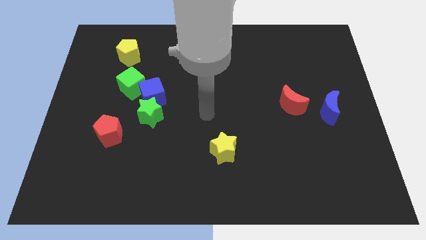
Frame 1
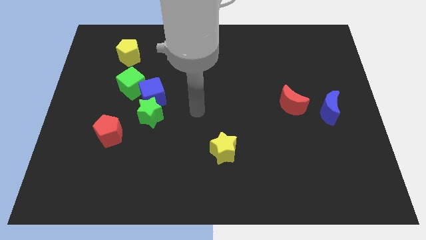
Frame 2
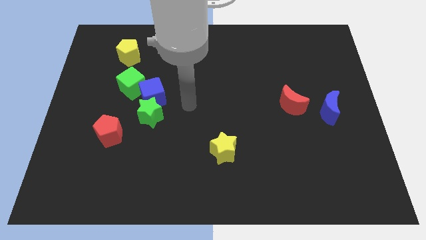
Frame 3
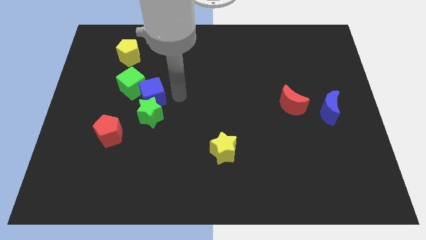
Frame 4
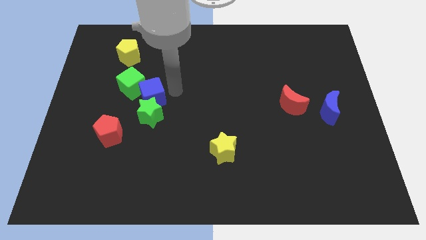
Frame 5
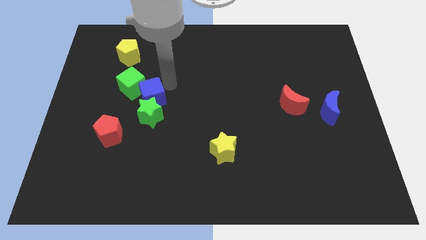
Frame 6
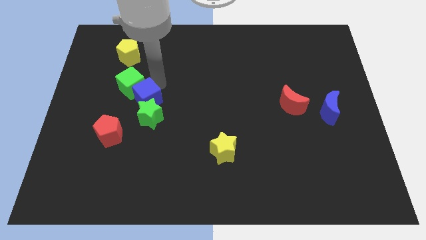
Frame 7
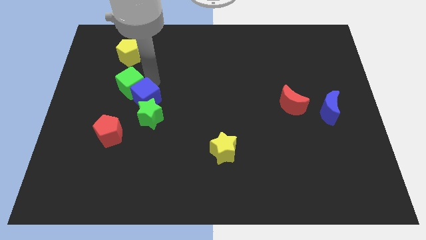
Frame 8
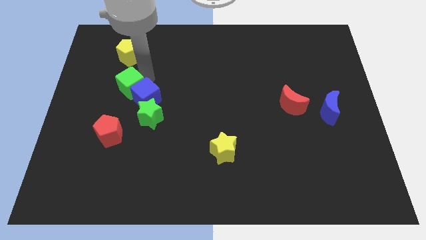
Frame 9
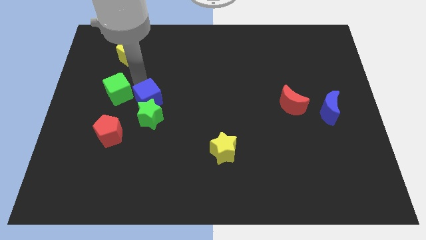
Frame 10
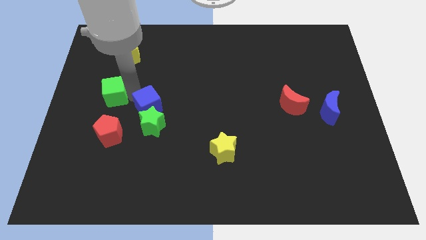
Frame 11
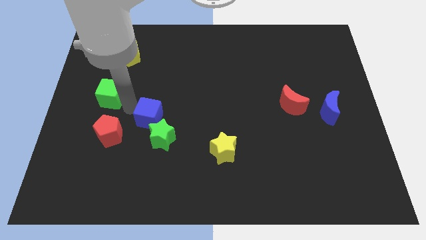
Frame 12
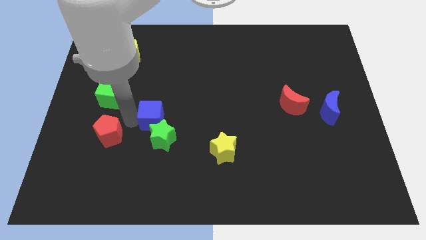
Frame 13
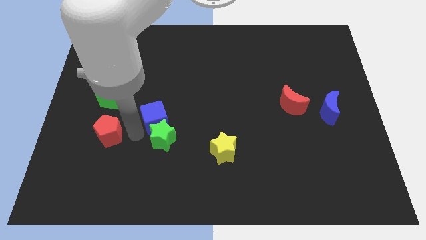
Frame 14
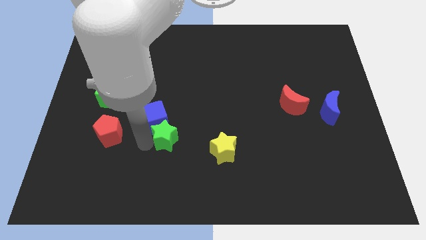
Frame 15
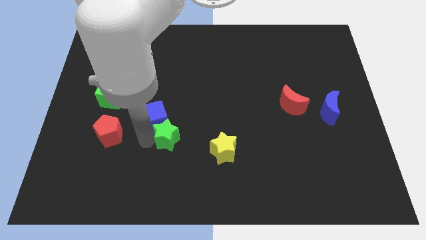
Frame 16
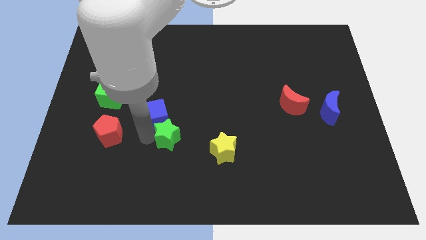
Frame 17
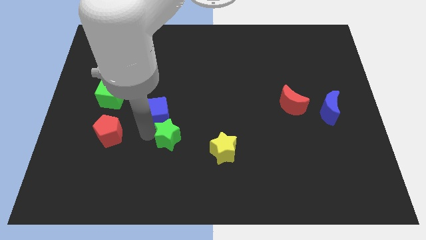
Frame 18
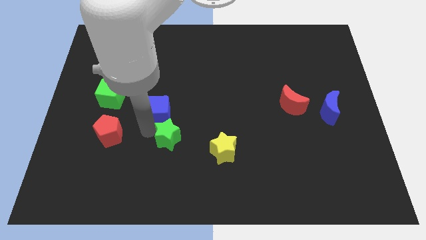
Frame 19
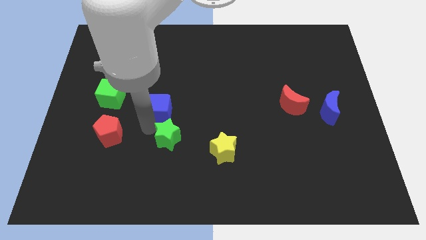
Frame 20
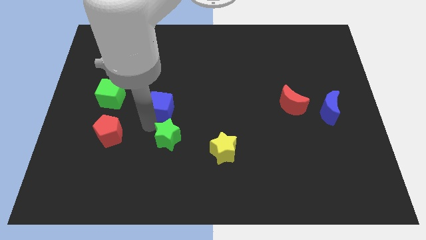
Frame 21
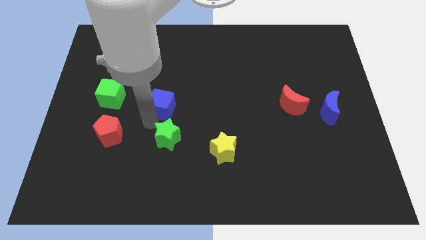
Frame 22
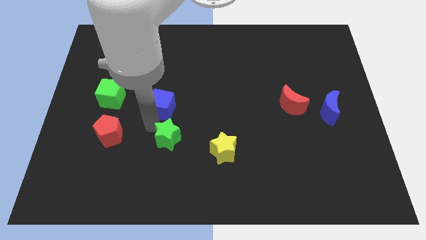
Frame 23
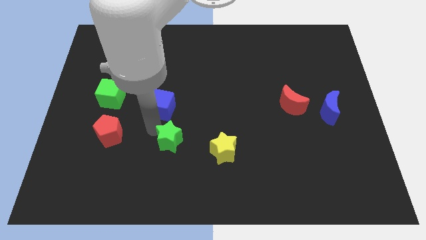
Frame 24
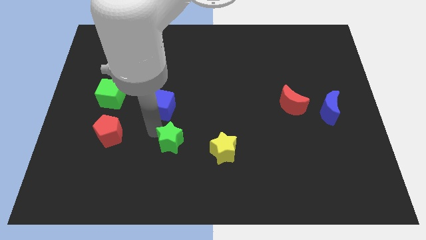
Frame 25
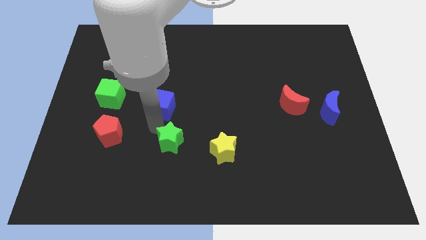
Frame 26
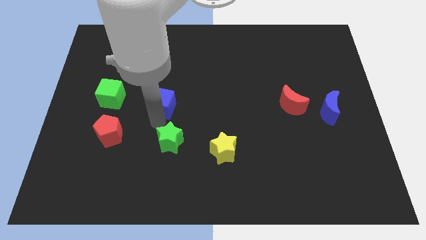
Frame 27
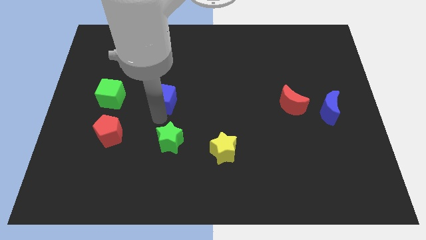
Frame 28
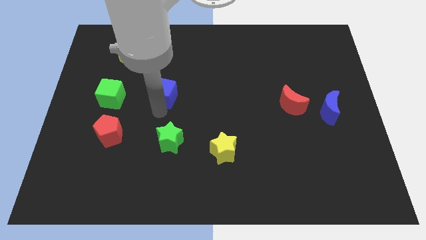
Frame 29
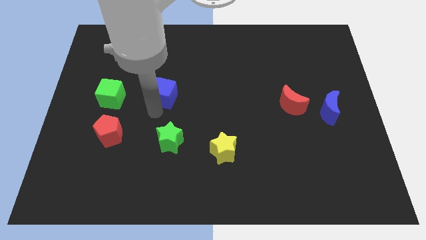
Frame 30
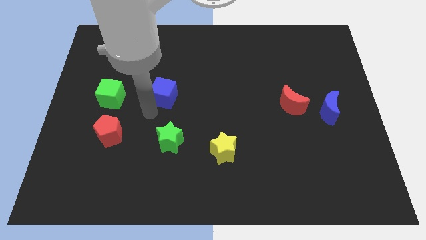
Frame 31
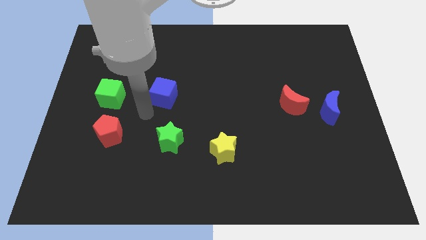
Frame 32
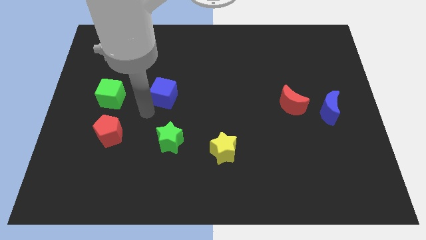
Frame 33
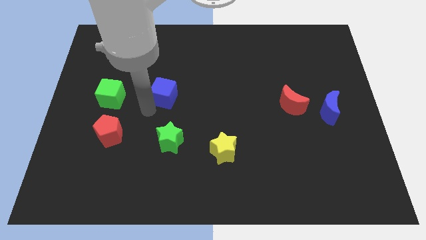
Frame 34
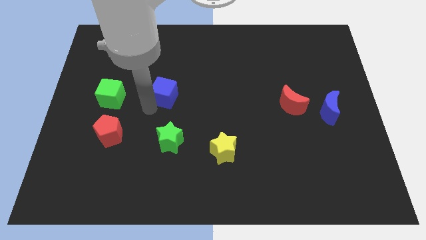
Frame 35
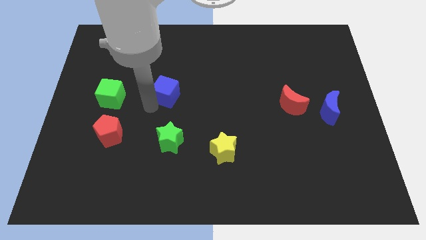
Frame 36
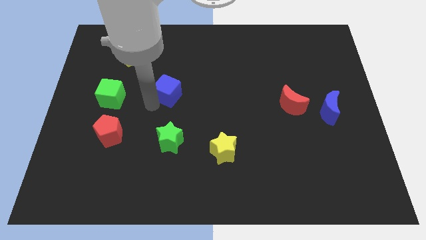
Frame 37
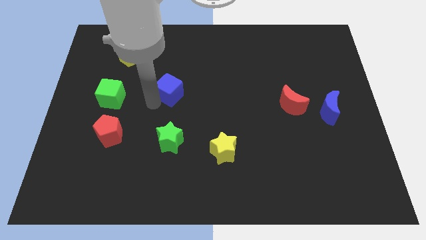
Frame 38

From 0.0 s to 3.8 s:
separate the blue cube from the green star and green cube

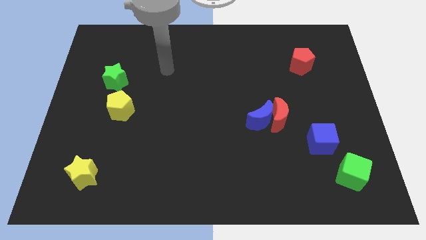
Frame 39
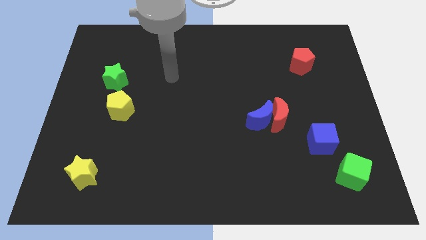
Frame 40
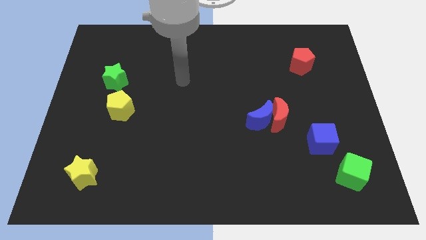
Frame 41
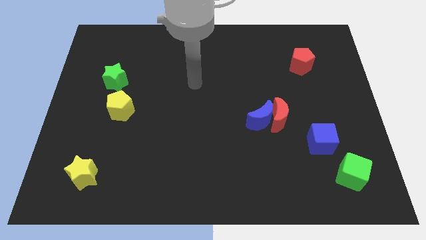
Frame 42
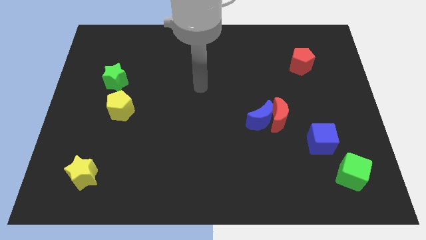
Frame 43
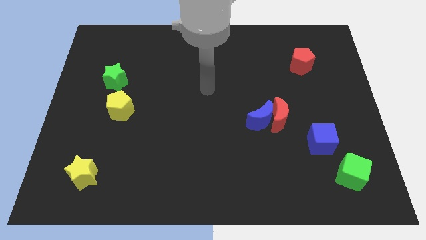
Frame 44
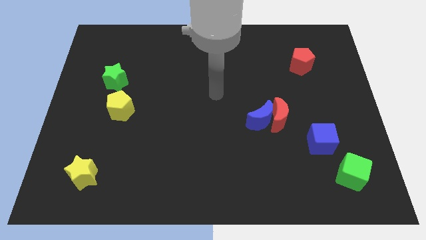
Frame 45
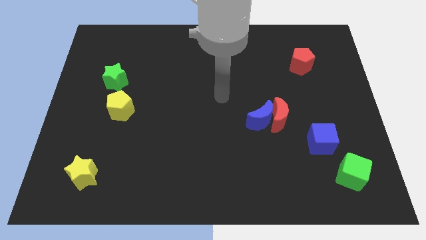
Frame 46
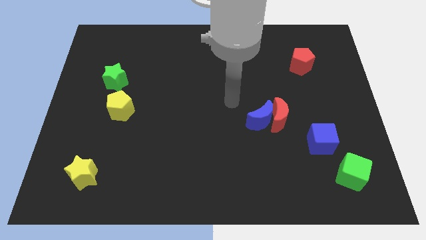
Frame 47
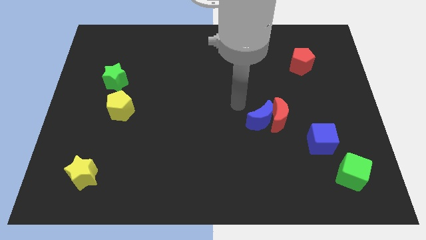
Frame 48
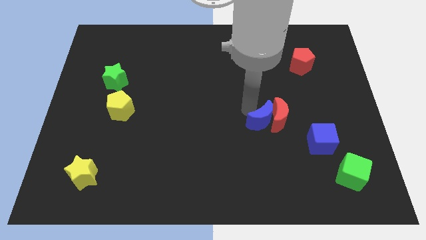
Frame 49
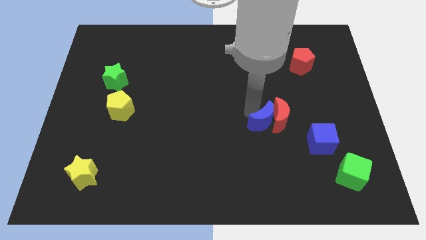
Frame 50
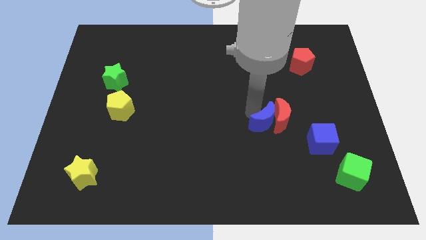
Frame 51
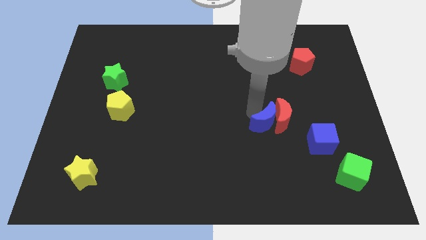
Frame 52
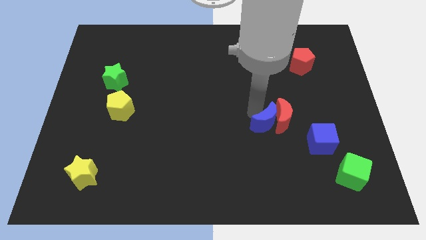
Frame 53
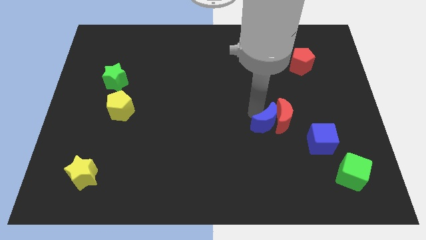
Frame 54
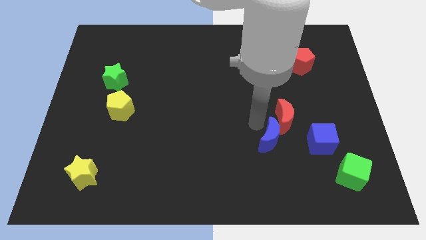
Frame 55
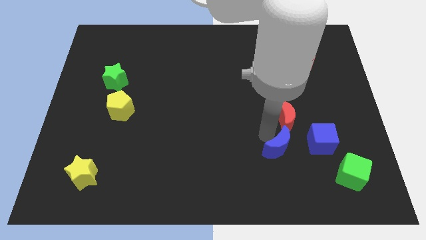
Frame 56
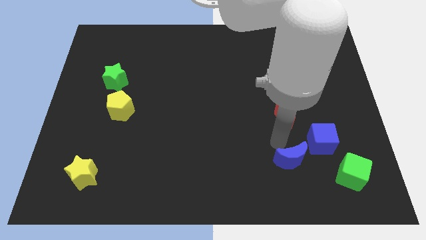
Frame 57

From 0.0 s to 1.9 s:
separate the red moon from the blue moon

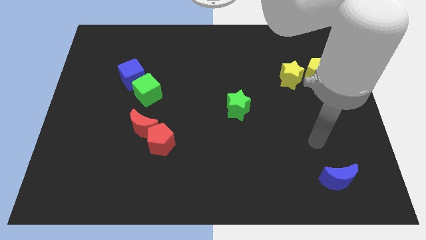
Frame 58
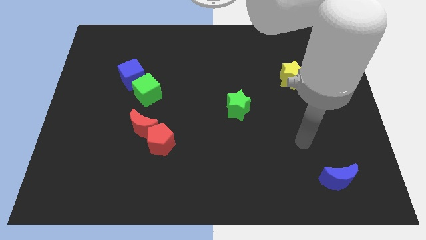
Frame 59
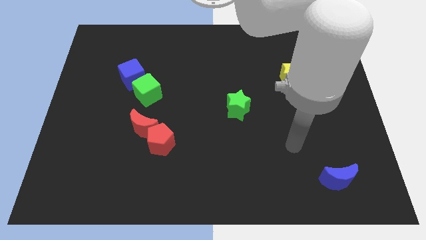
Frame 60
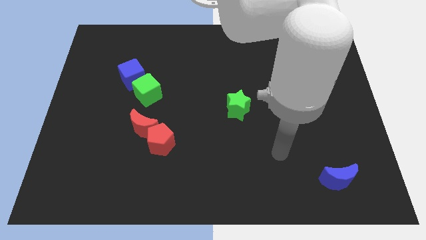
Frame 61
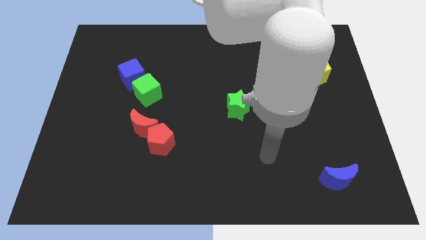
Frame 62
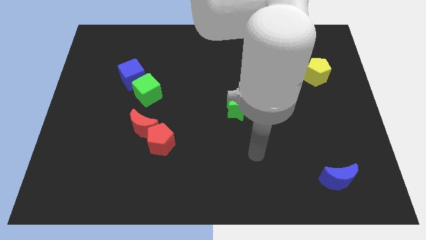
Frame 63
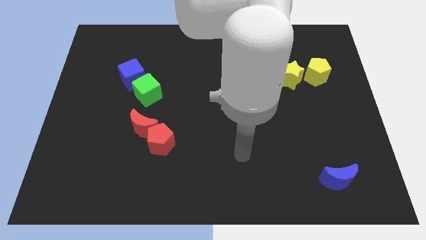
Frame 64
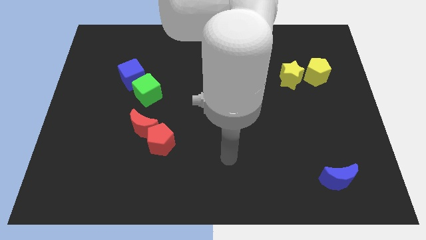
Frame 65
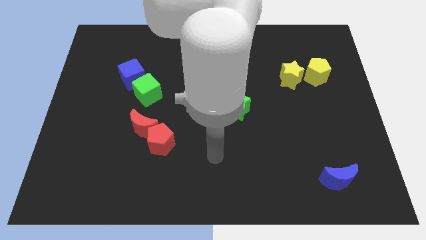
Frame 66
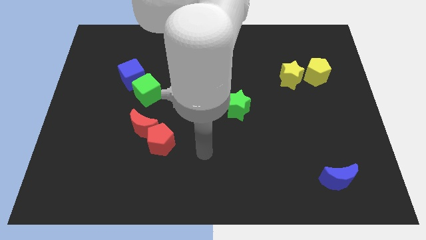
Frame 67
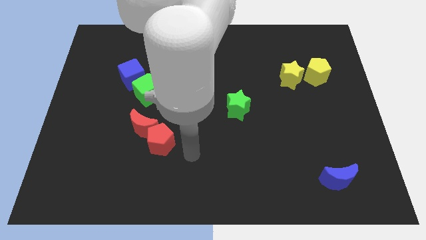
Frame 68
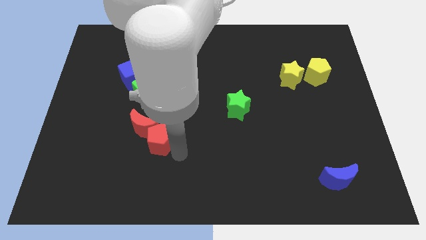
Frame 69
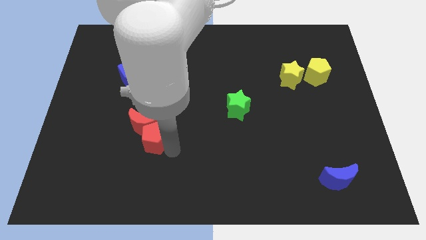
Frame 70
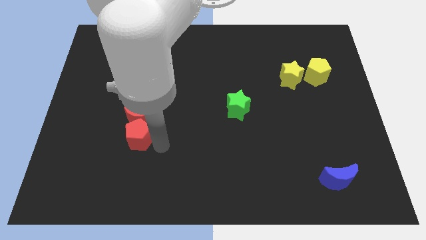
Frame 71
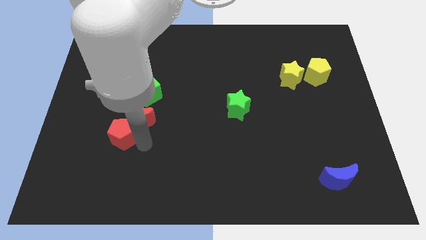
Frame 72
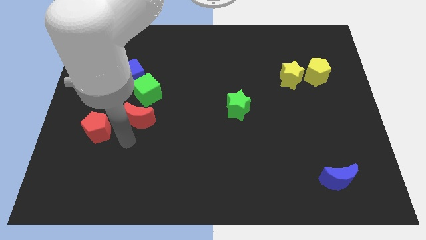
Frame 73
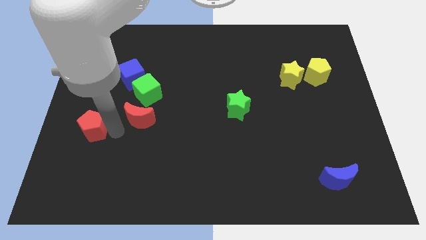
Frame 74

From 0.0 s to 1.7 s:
separate the red moon from the red pentagon

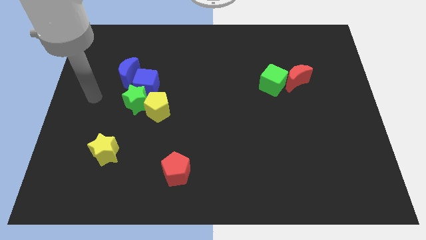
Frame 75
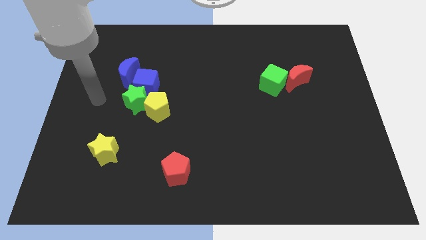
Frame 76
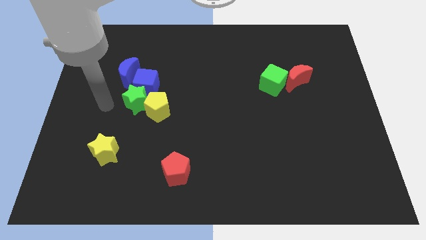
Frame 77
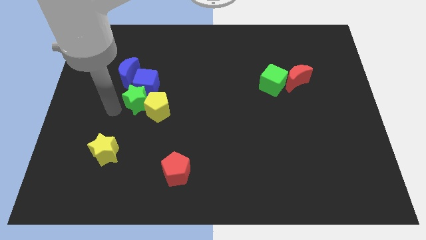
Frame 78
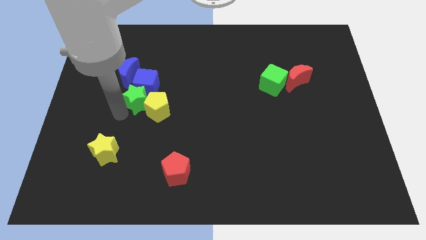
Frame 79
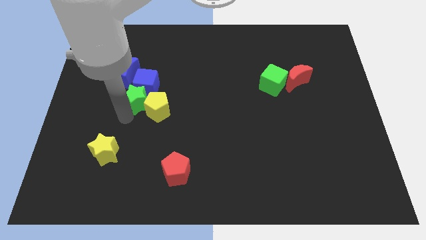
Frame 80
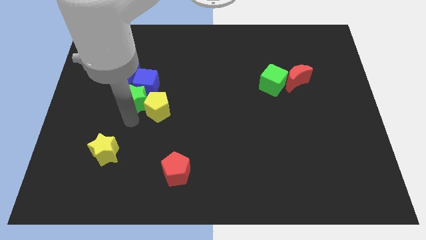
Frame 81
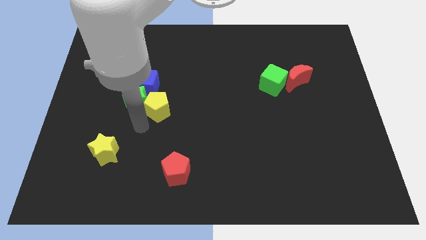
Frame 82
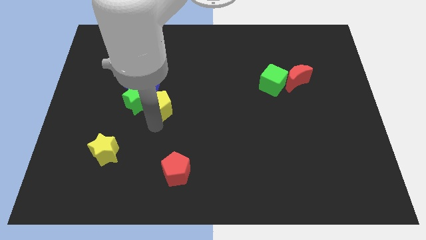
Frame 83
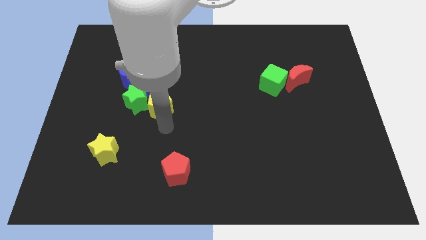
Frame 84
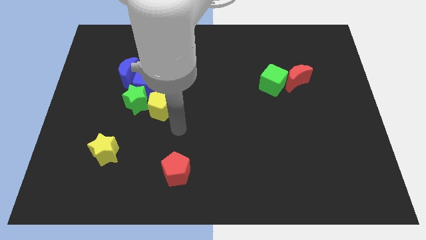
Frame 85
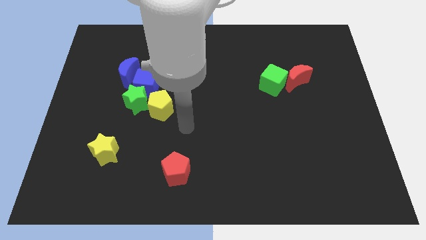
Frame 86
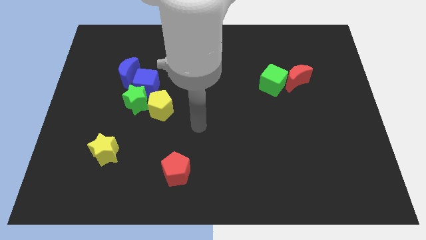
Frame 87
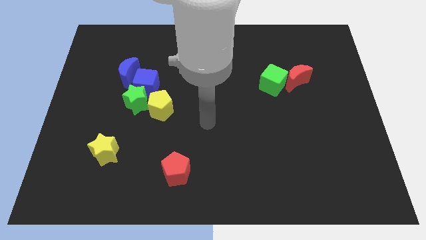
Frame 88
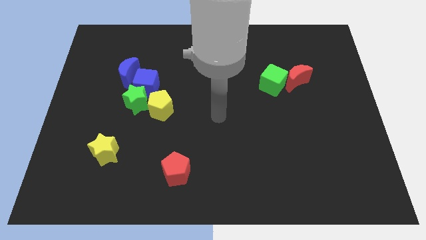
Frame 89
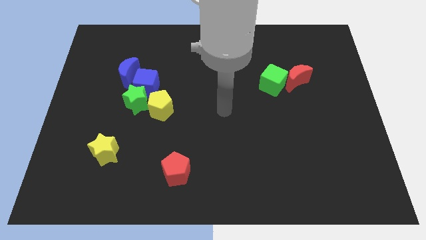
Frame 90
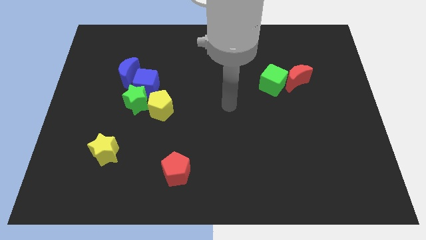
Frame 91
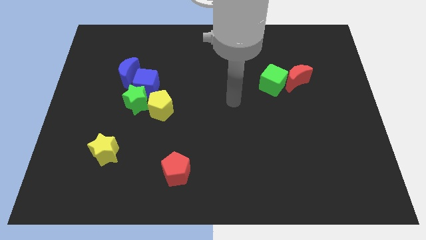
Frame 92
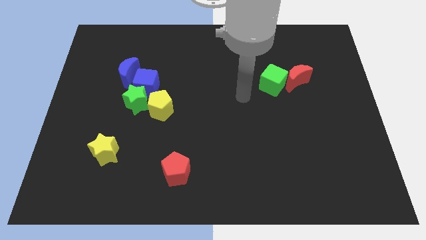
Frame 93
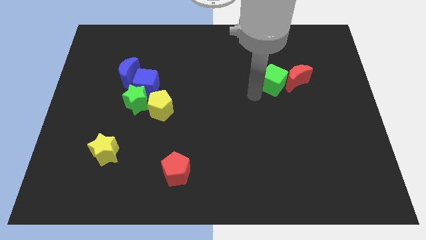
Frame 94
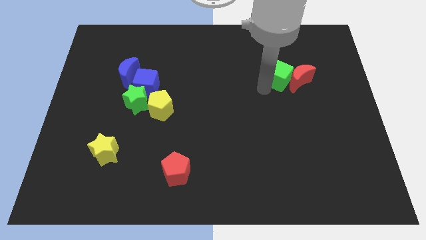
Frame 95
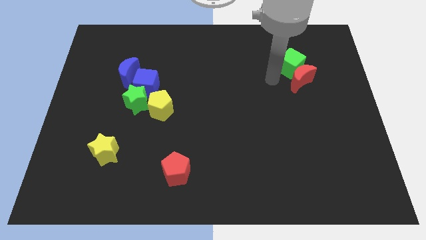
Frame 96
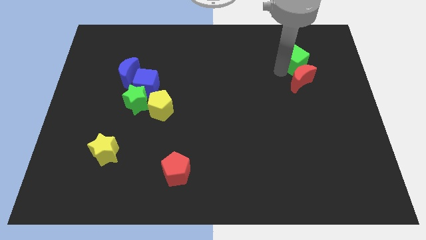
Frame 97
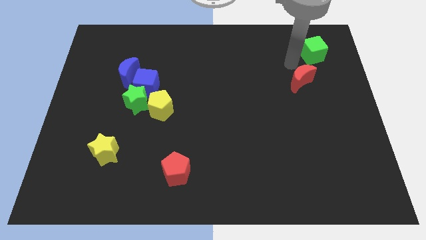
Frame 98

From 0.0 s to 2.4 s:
move the red moon away from the green cube
